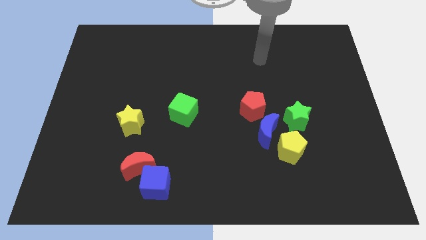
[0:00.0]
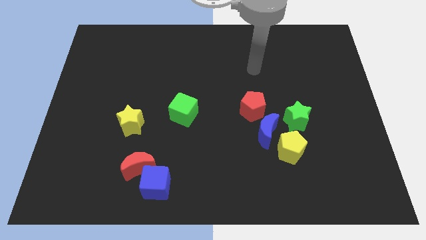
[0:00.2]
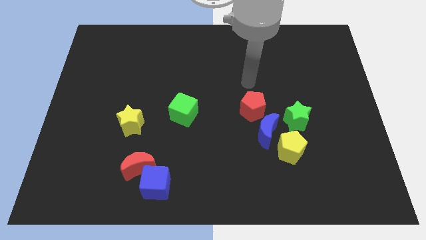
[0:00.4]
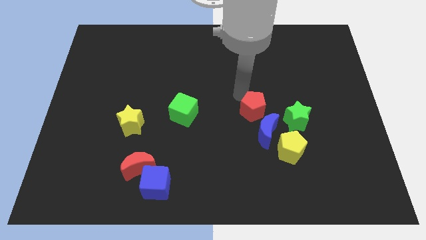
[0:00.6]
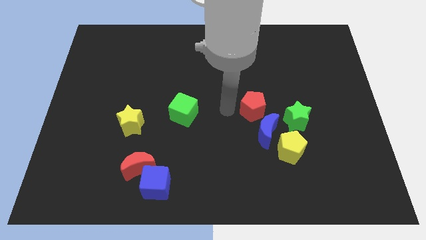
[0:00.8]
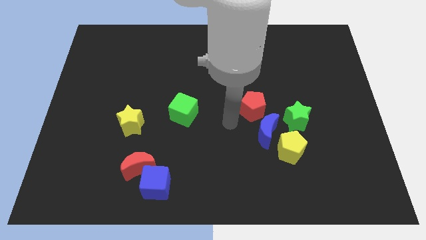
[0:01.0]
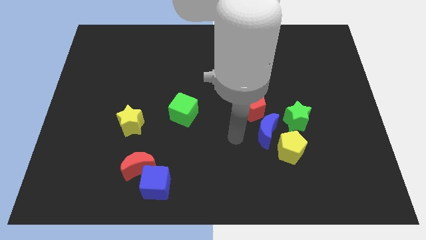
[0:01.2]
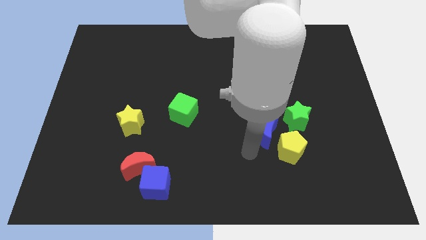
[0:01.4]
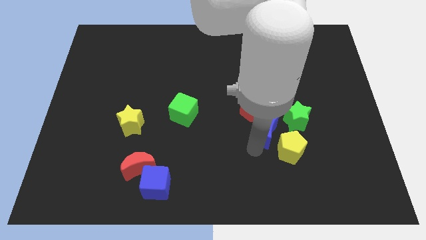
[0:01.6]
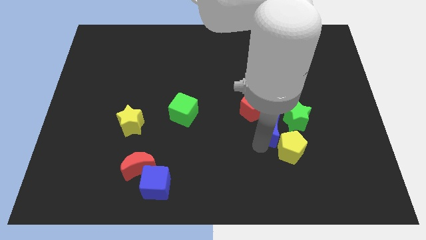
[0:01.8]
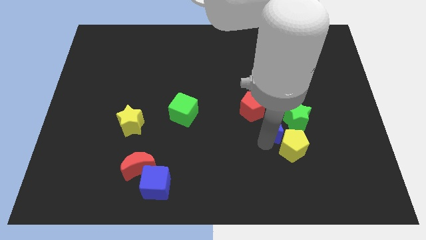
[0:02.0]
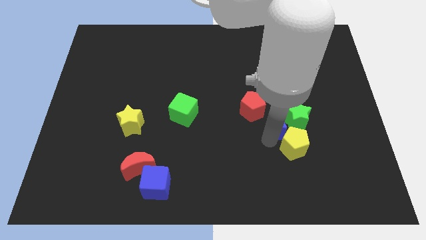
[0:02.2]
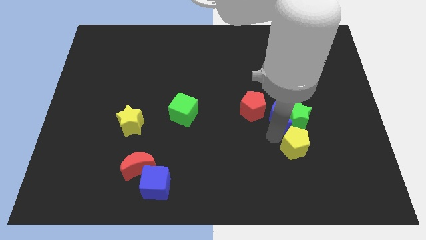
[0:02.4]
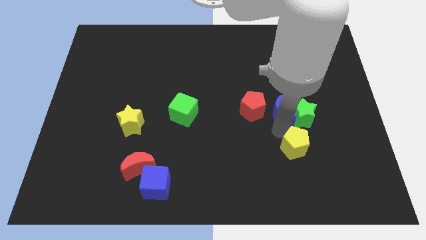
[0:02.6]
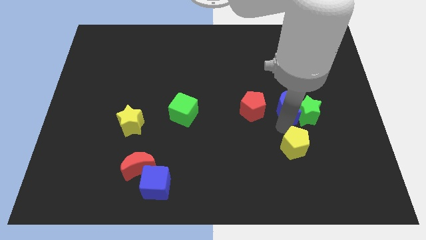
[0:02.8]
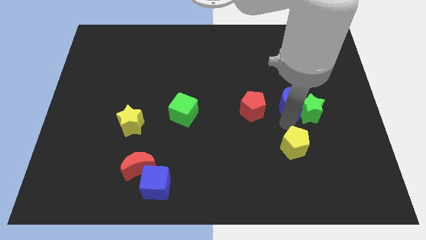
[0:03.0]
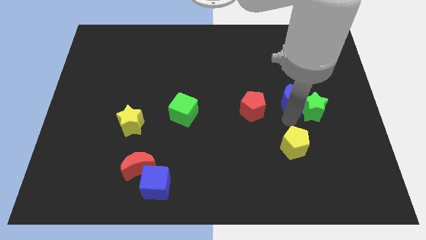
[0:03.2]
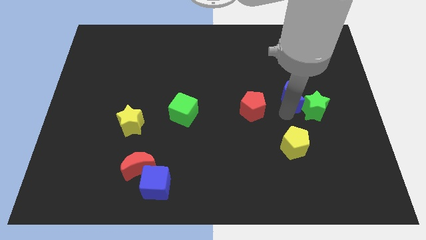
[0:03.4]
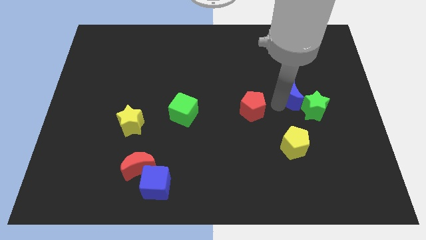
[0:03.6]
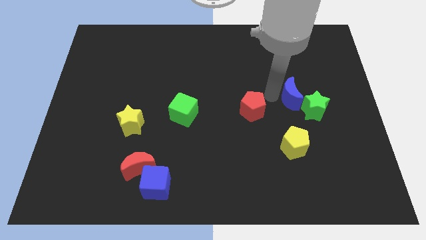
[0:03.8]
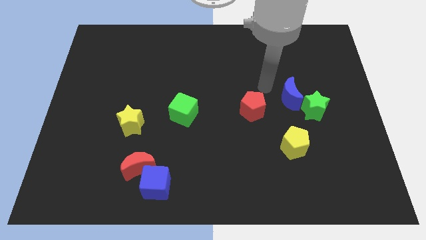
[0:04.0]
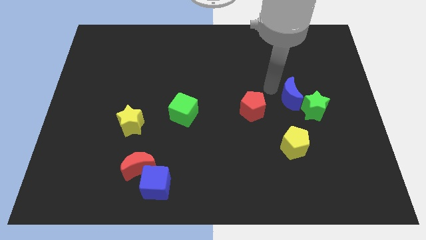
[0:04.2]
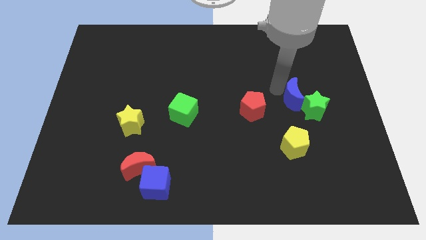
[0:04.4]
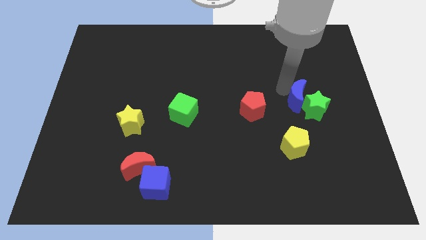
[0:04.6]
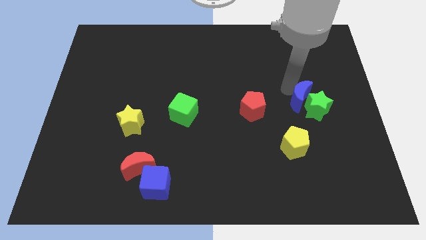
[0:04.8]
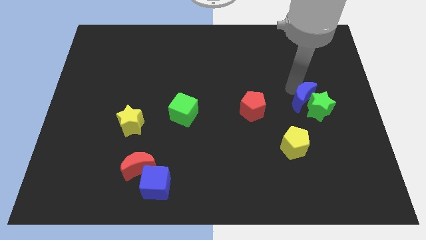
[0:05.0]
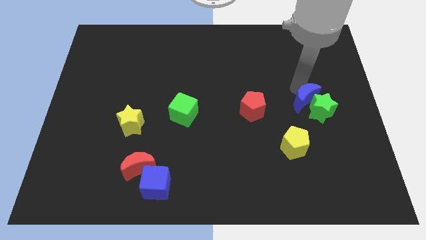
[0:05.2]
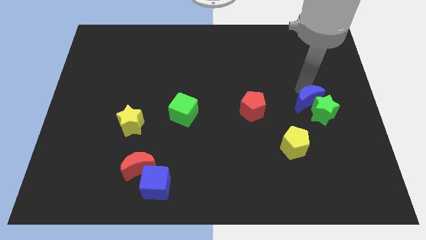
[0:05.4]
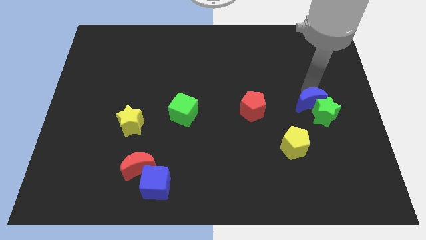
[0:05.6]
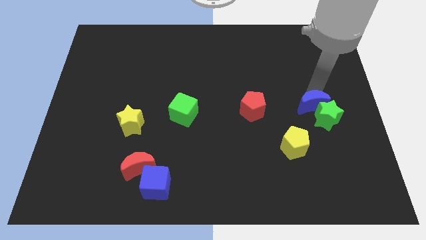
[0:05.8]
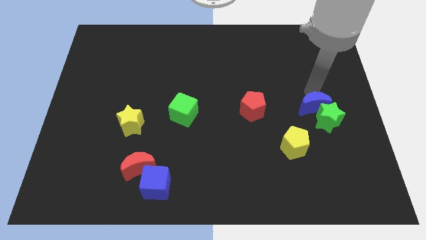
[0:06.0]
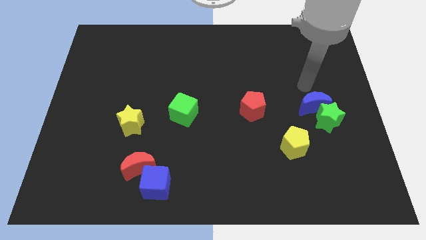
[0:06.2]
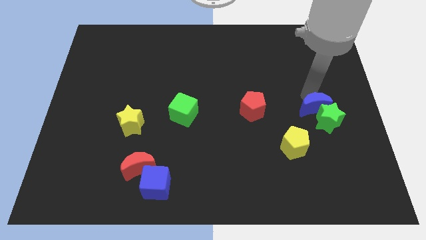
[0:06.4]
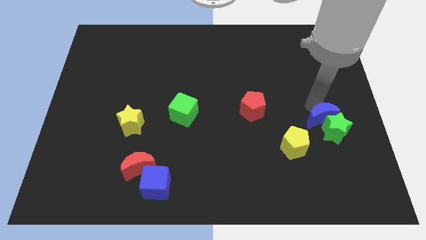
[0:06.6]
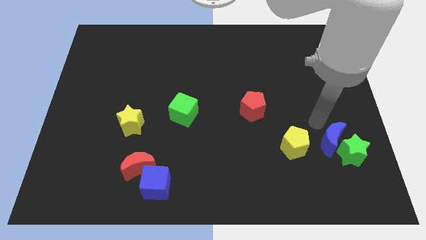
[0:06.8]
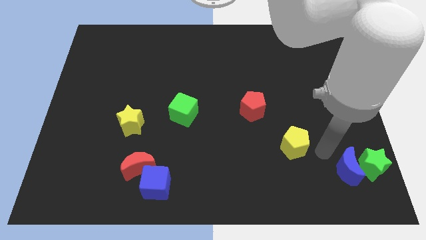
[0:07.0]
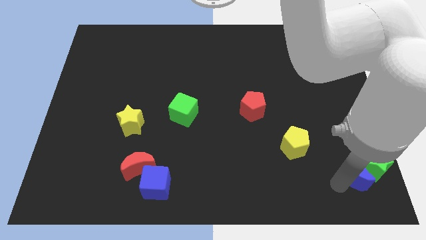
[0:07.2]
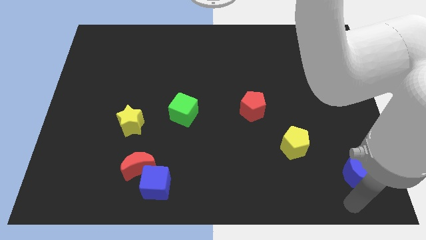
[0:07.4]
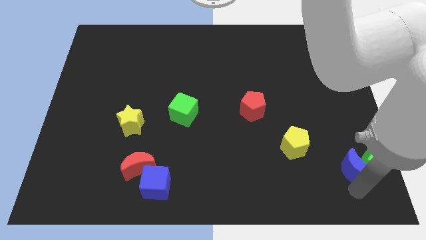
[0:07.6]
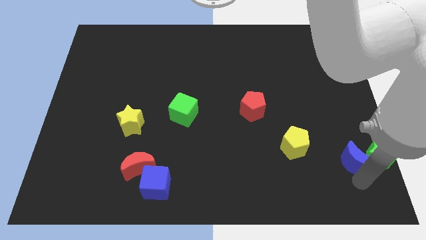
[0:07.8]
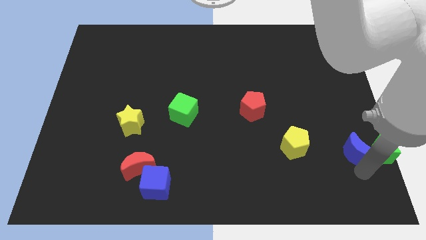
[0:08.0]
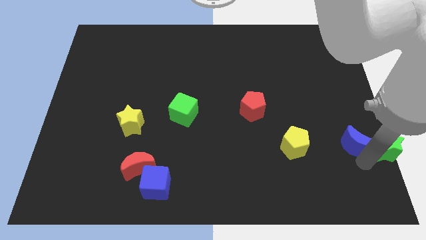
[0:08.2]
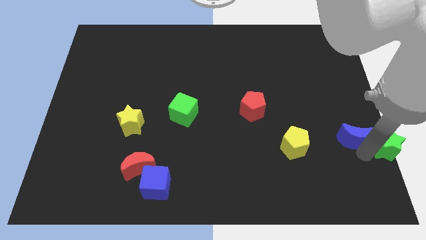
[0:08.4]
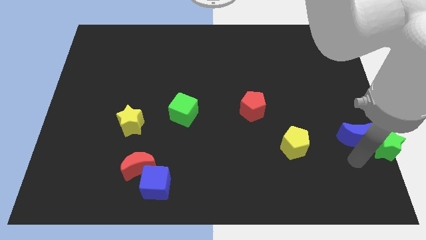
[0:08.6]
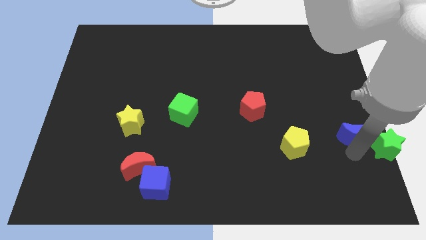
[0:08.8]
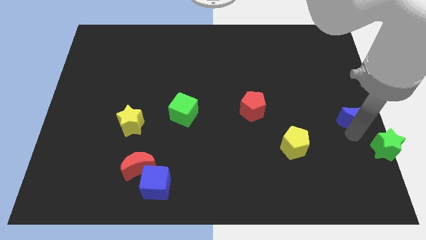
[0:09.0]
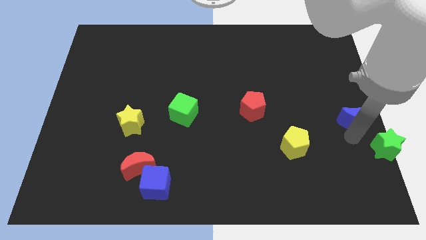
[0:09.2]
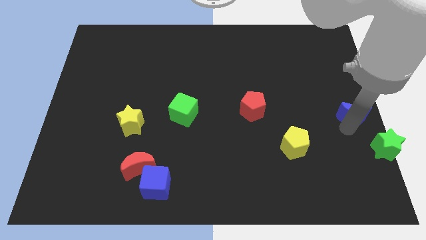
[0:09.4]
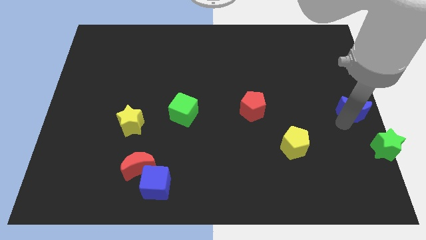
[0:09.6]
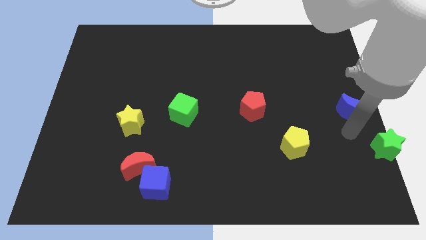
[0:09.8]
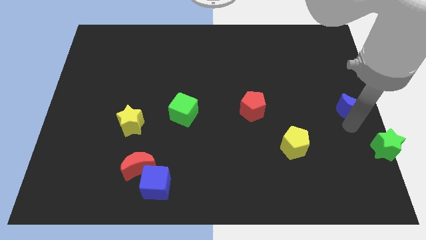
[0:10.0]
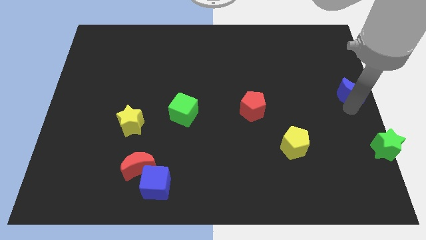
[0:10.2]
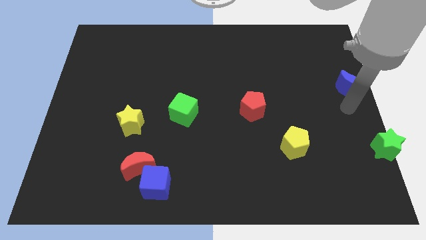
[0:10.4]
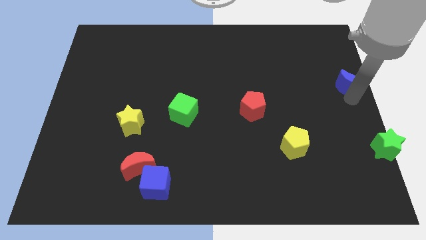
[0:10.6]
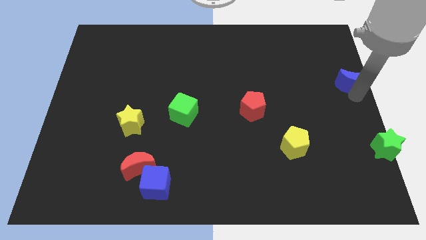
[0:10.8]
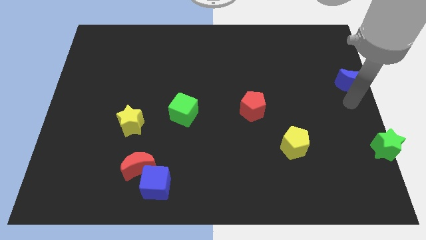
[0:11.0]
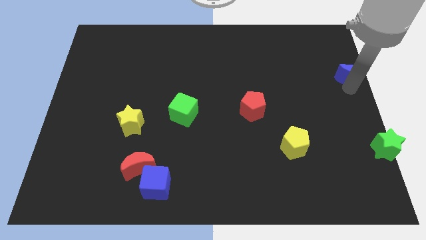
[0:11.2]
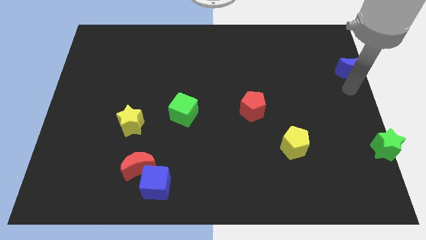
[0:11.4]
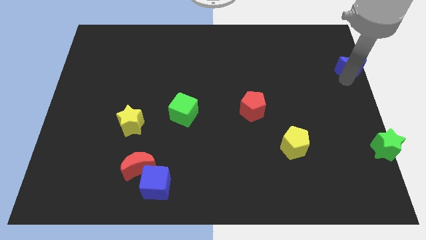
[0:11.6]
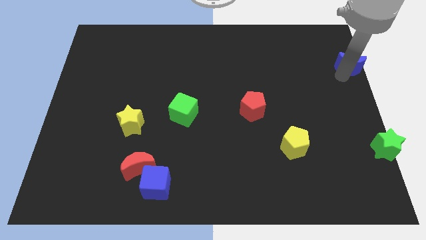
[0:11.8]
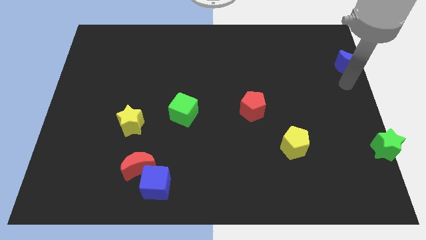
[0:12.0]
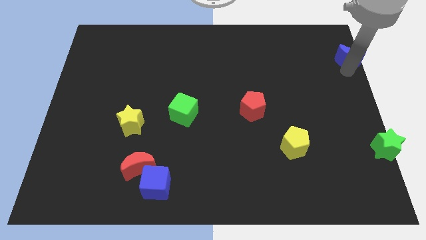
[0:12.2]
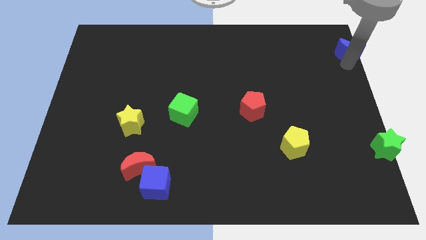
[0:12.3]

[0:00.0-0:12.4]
move the blue moon to the upper right corner

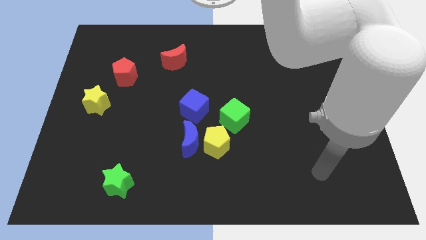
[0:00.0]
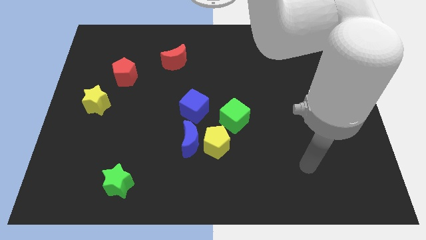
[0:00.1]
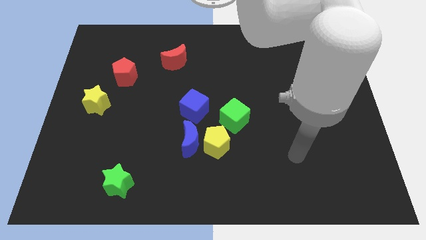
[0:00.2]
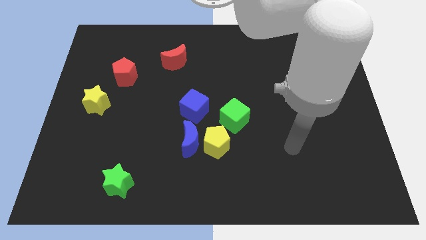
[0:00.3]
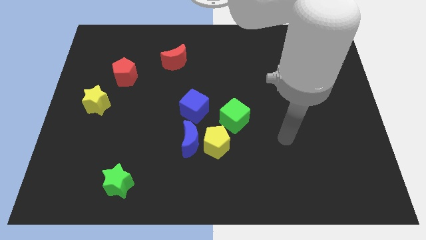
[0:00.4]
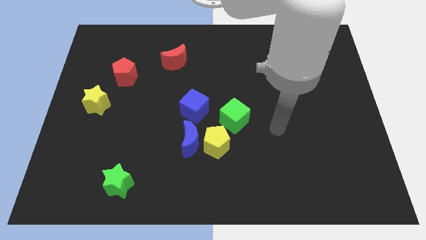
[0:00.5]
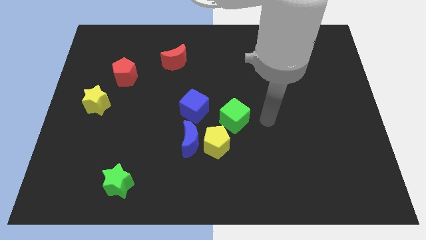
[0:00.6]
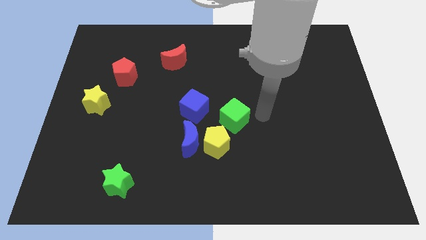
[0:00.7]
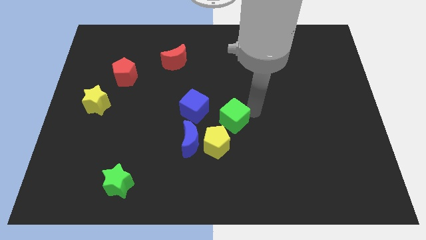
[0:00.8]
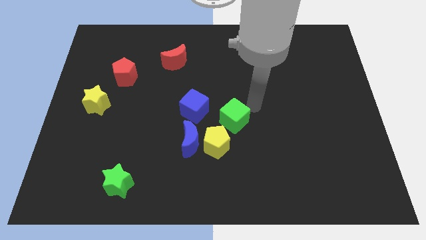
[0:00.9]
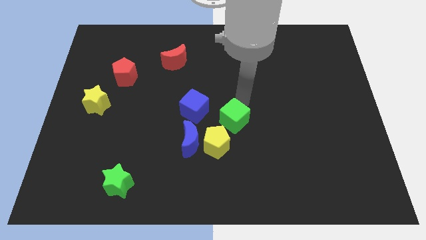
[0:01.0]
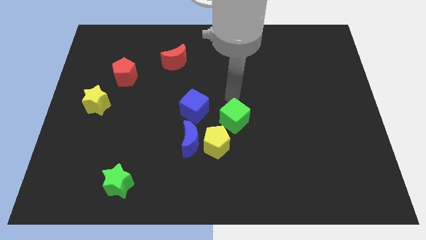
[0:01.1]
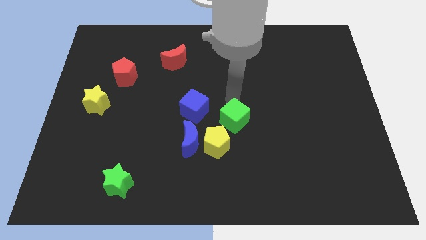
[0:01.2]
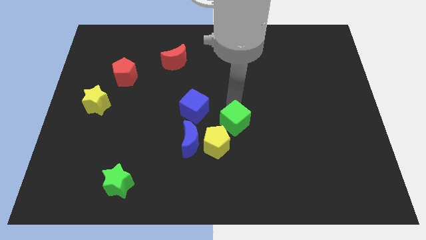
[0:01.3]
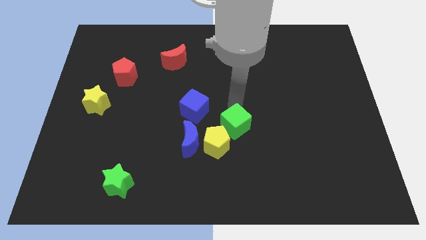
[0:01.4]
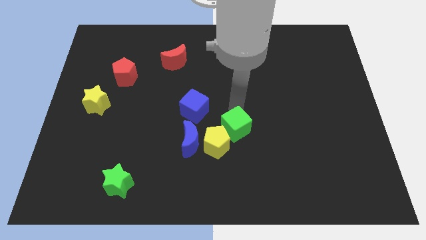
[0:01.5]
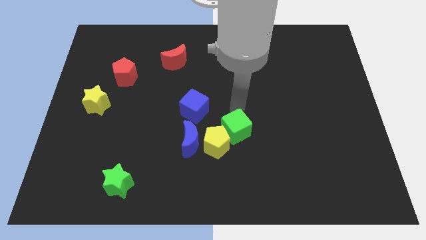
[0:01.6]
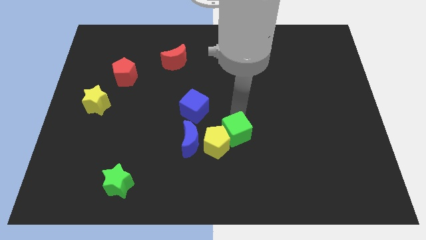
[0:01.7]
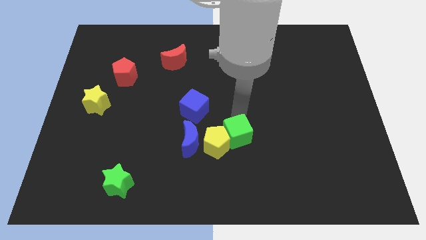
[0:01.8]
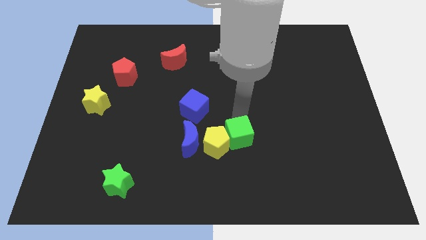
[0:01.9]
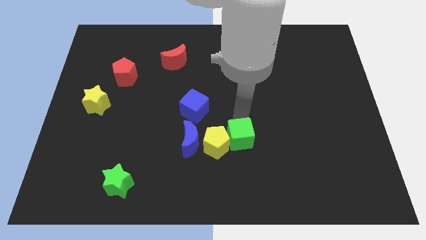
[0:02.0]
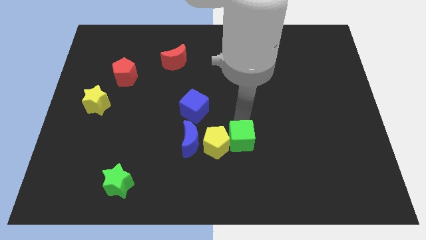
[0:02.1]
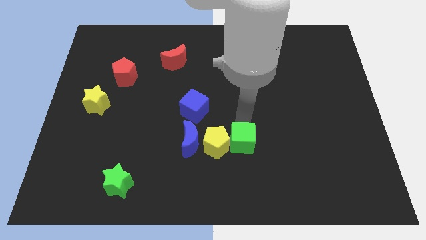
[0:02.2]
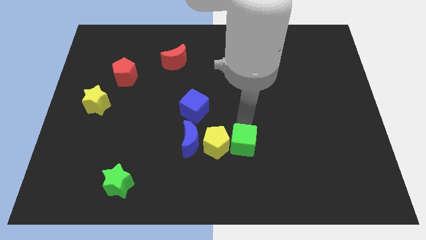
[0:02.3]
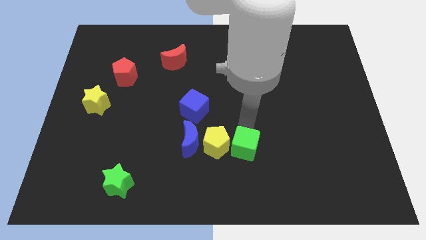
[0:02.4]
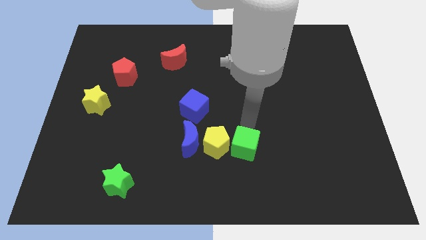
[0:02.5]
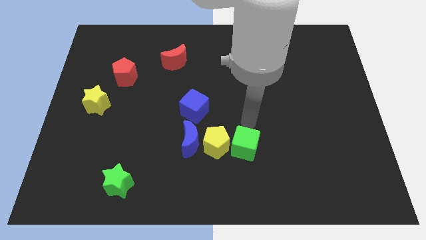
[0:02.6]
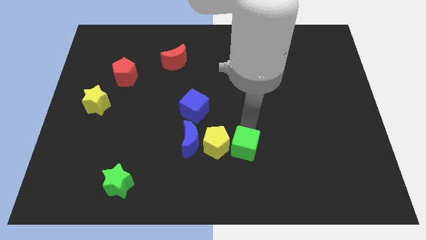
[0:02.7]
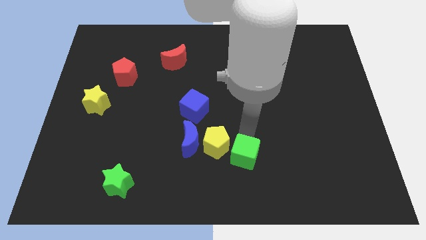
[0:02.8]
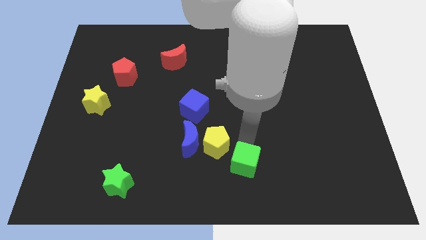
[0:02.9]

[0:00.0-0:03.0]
put the green cube to the bottom side
